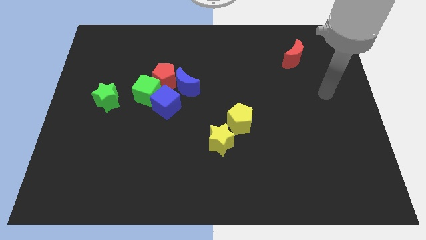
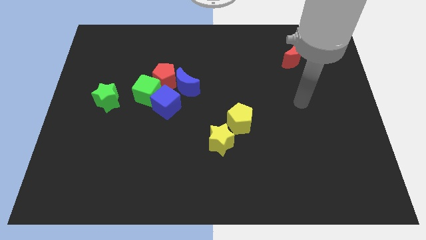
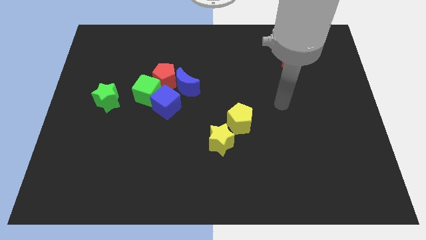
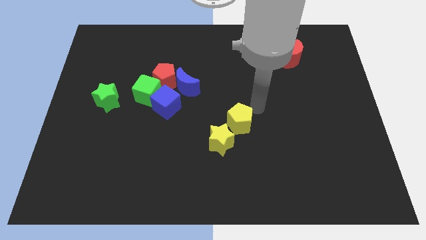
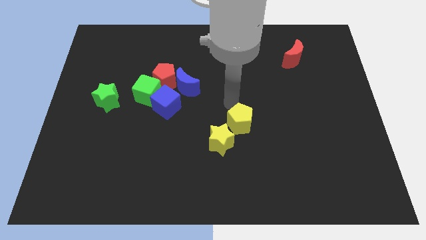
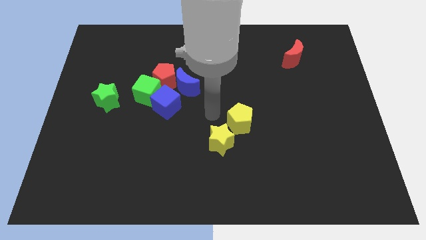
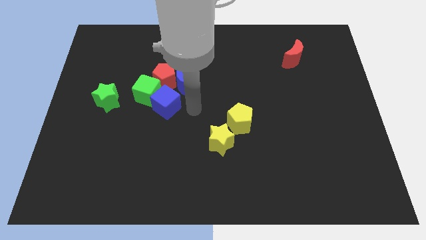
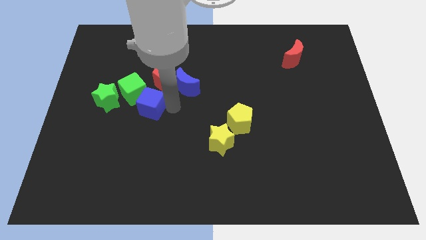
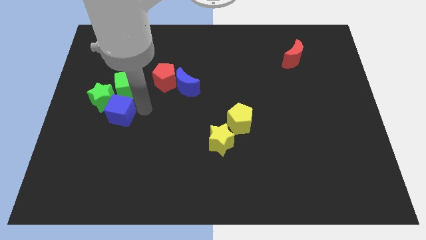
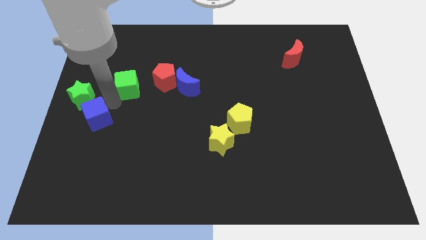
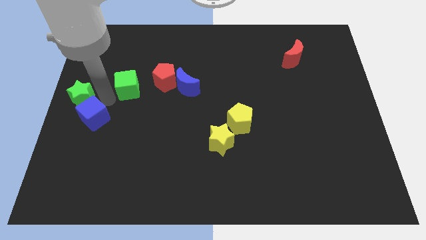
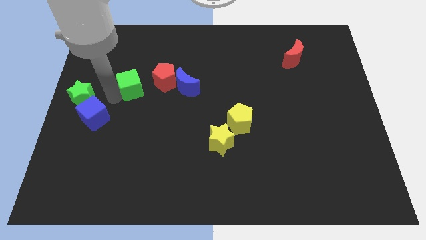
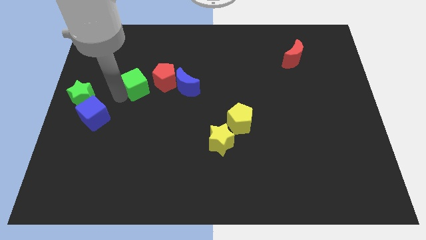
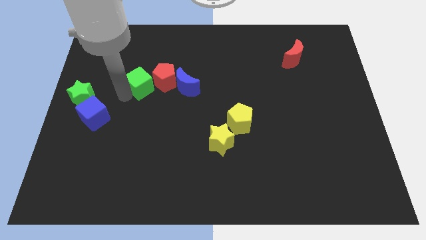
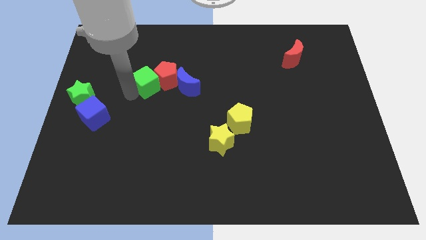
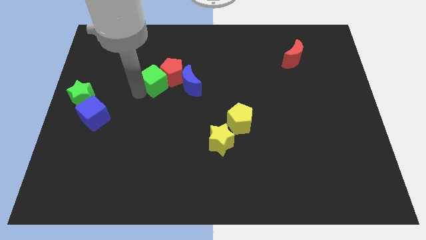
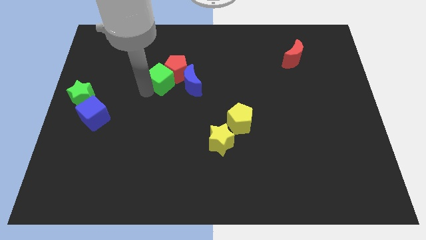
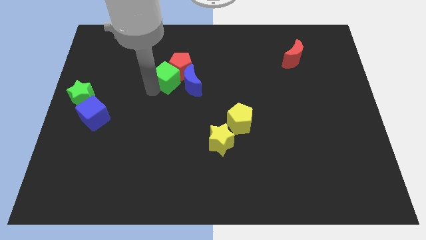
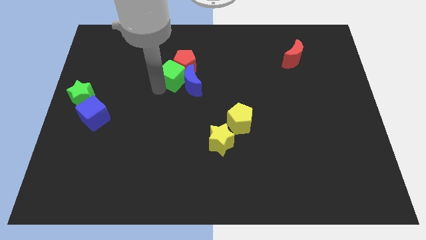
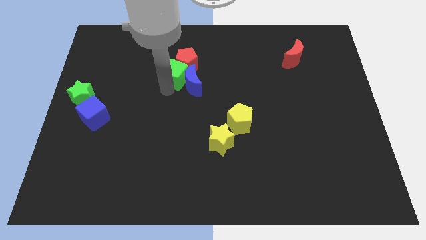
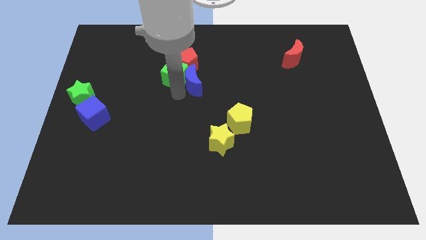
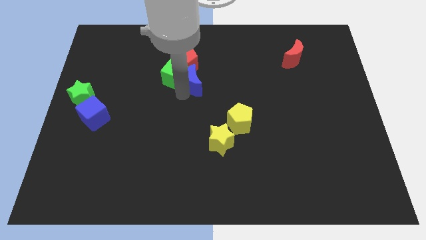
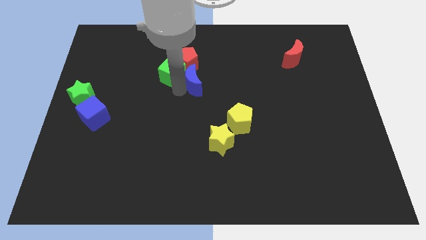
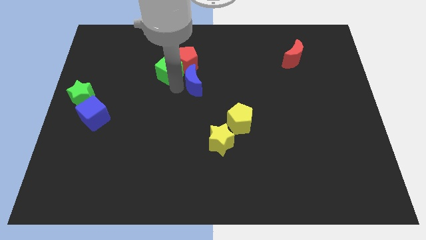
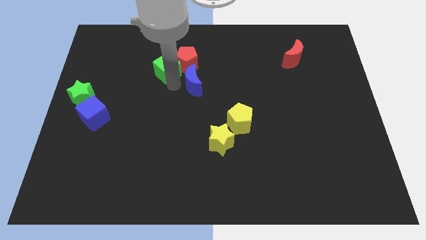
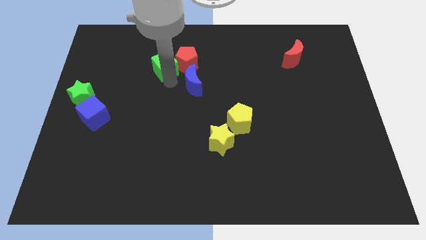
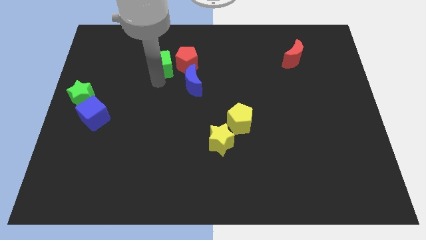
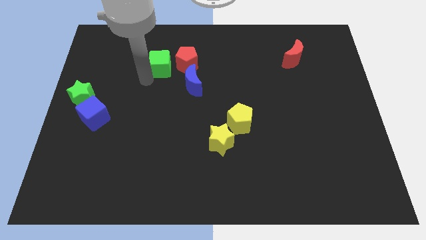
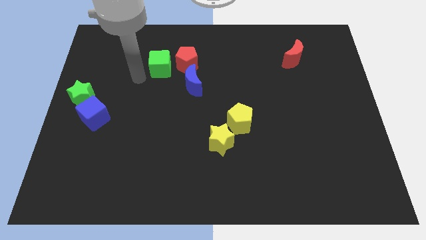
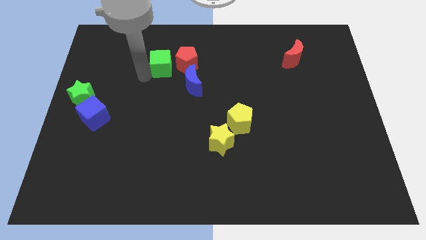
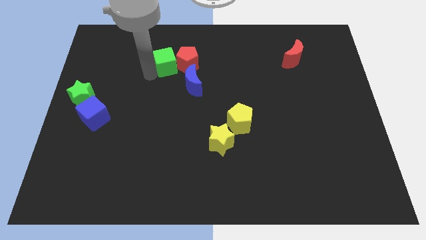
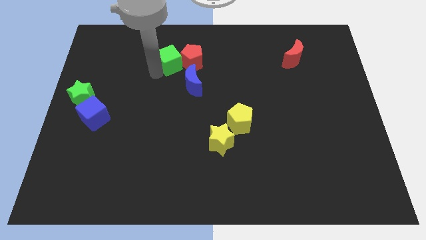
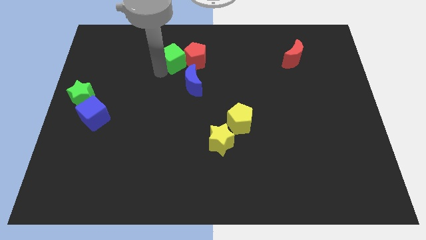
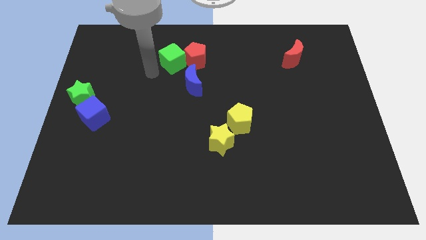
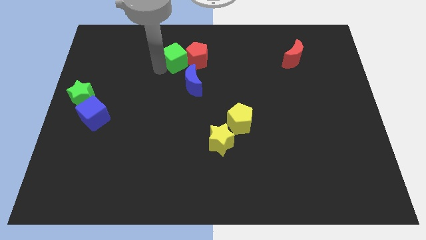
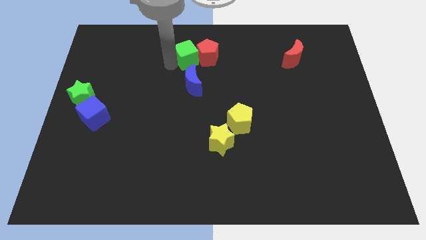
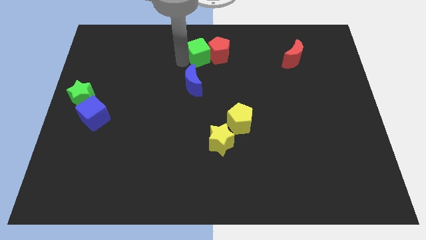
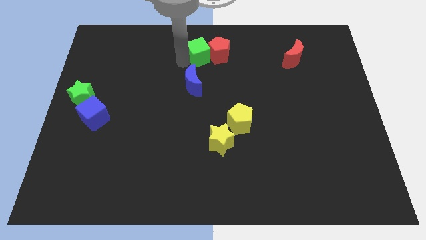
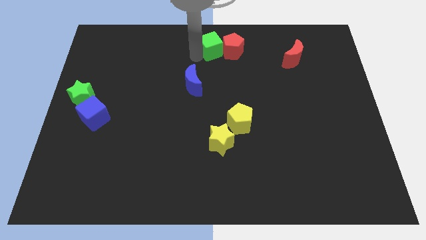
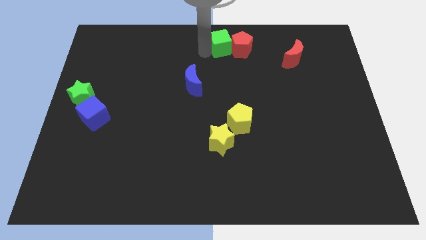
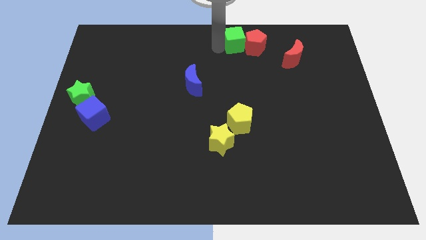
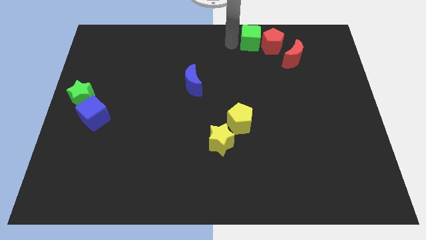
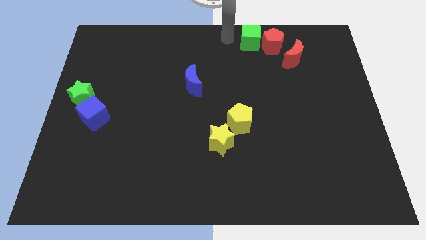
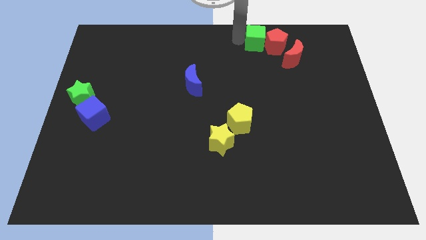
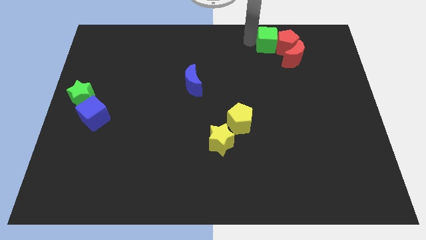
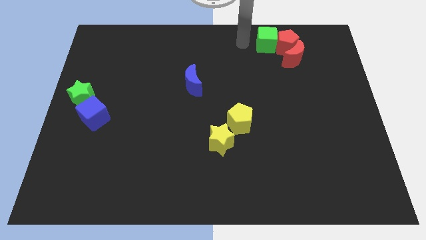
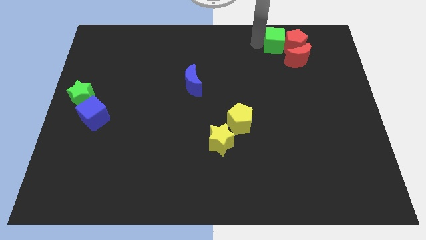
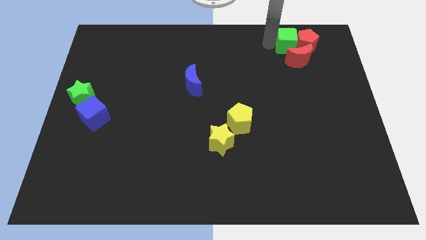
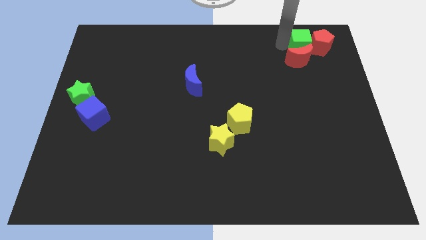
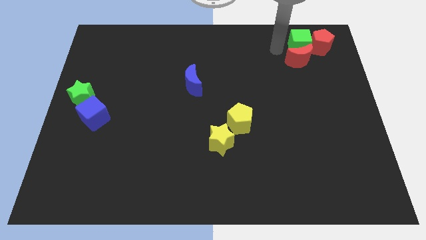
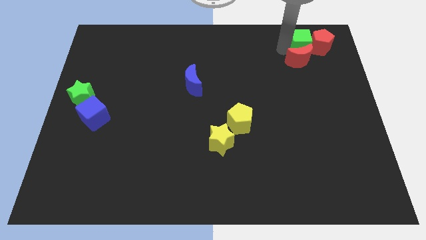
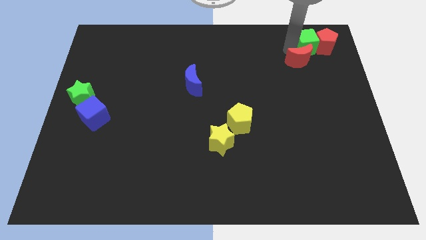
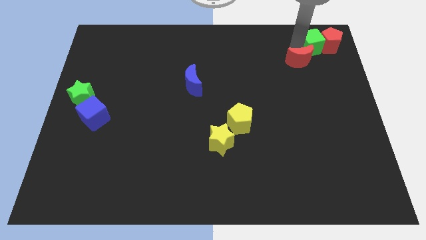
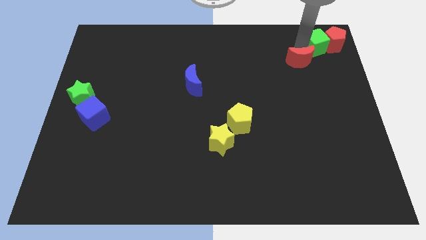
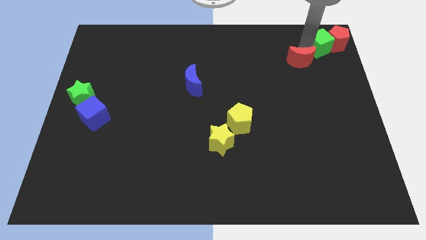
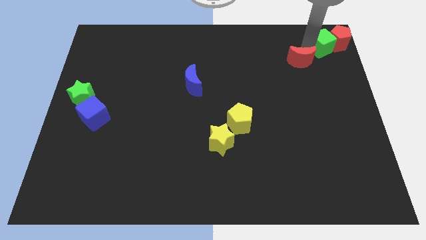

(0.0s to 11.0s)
slide the green cube to the top right of the board
